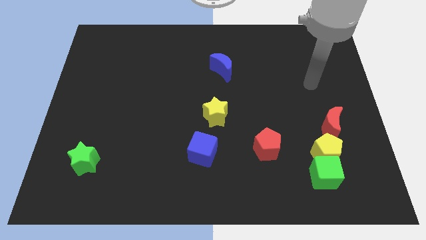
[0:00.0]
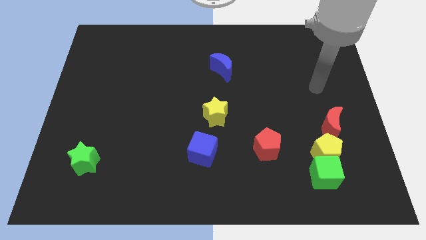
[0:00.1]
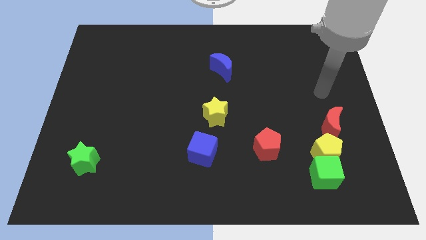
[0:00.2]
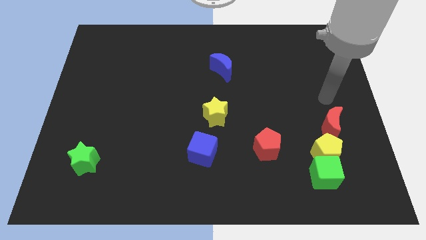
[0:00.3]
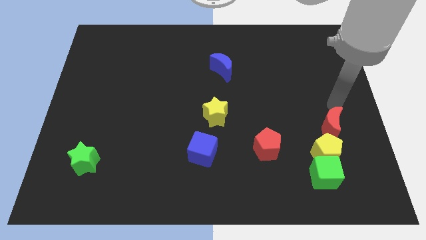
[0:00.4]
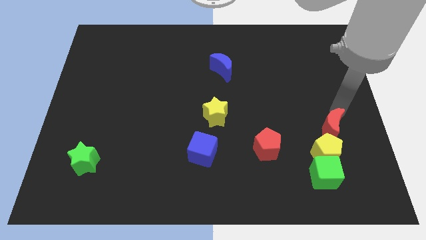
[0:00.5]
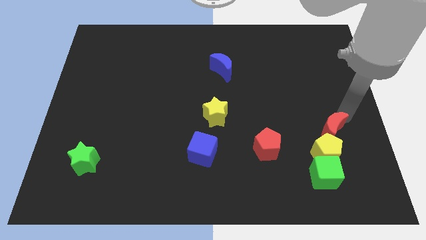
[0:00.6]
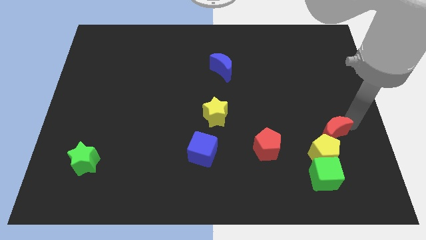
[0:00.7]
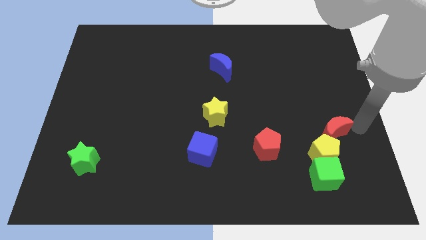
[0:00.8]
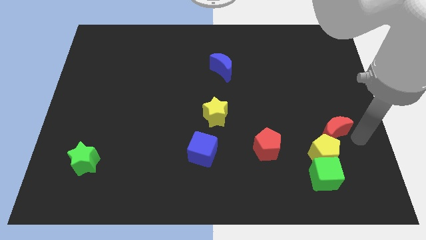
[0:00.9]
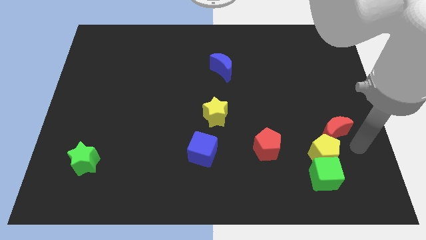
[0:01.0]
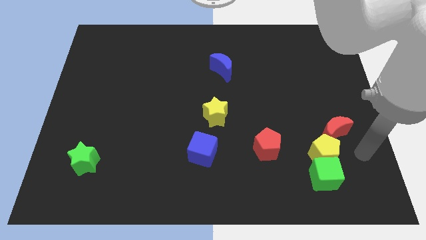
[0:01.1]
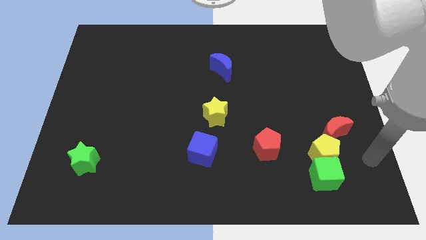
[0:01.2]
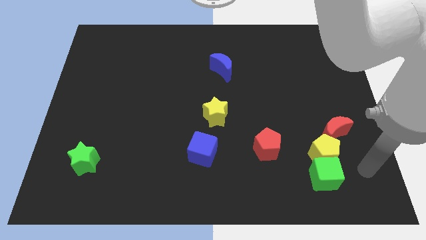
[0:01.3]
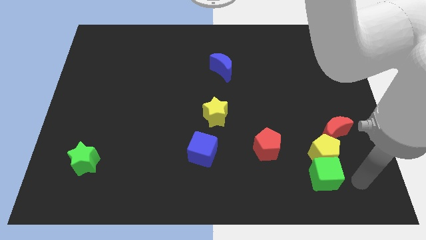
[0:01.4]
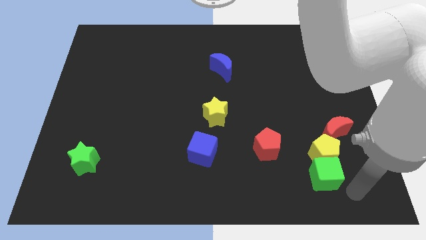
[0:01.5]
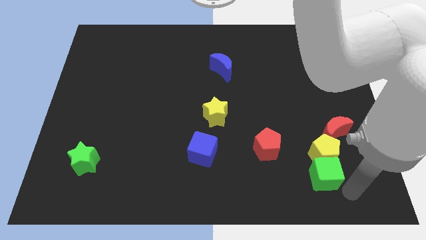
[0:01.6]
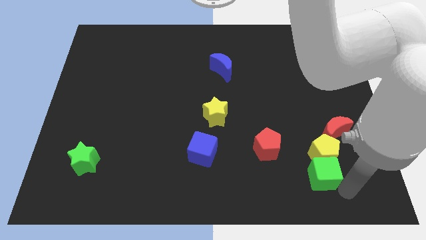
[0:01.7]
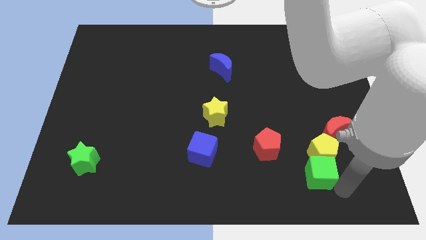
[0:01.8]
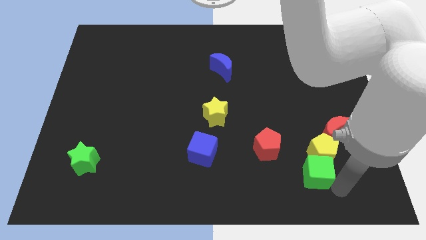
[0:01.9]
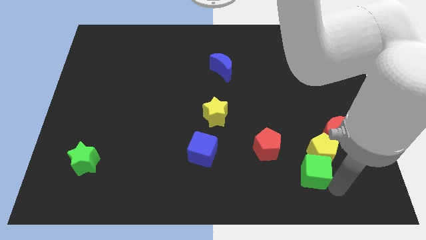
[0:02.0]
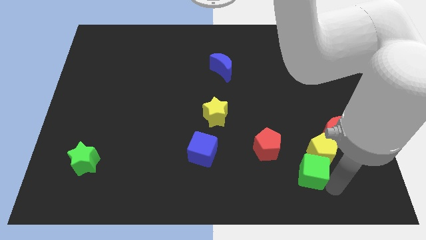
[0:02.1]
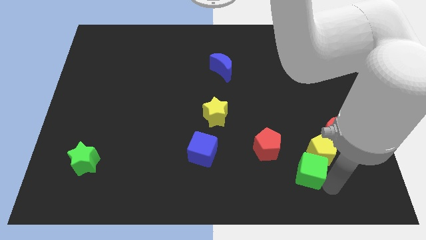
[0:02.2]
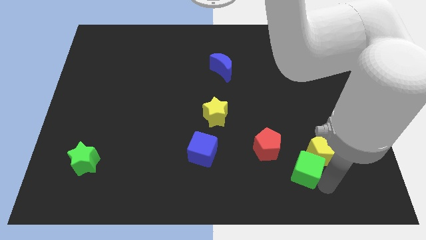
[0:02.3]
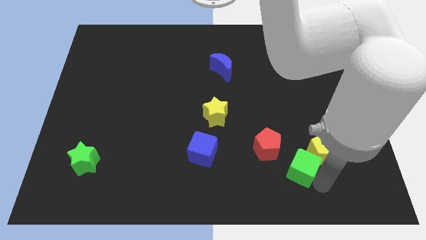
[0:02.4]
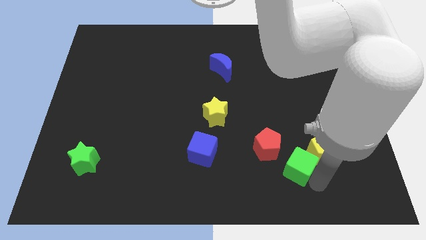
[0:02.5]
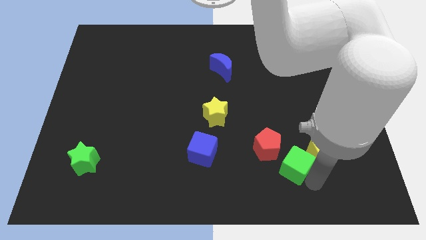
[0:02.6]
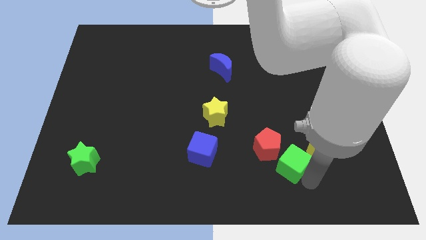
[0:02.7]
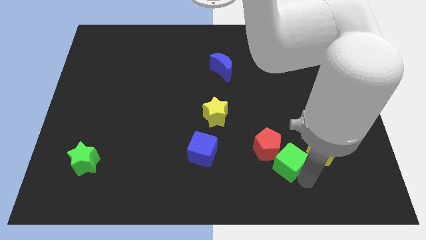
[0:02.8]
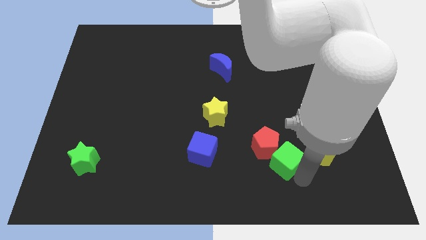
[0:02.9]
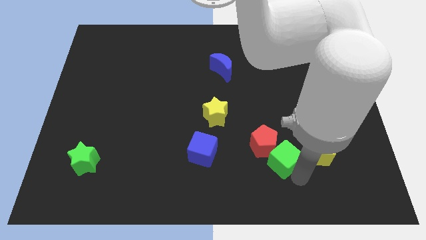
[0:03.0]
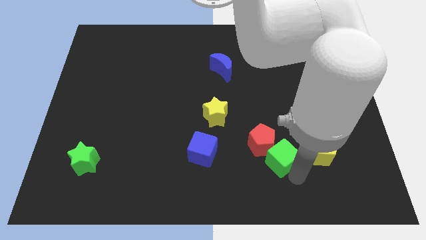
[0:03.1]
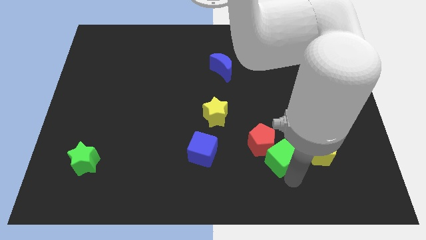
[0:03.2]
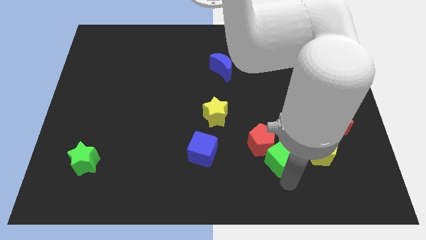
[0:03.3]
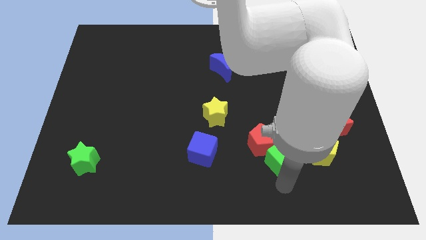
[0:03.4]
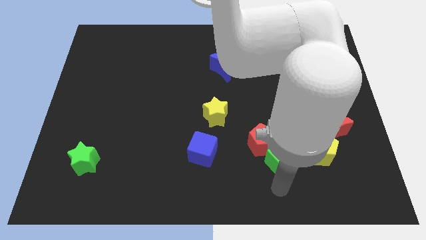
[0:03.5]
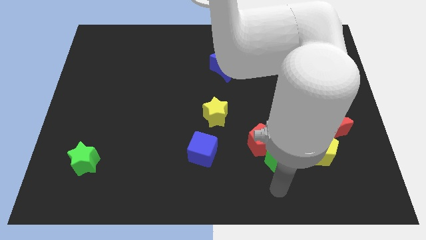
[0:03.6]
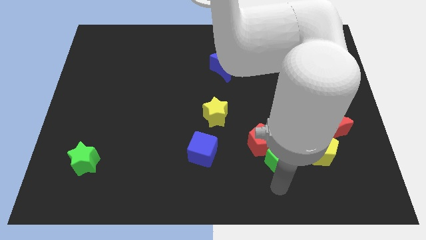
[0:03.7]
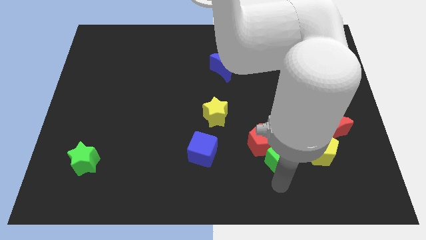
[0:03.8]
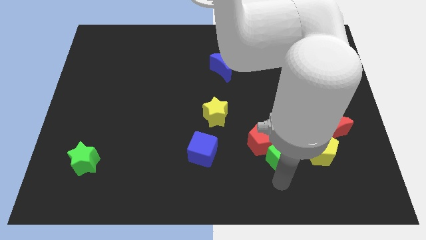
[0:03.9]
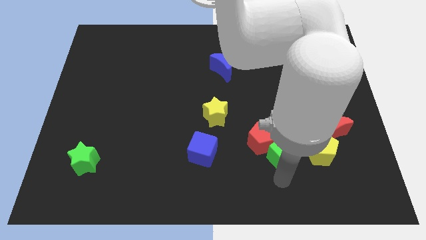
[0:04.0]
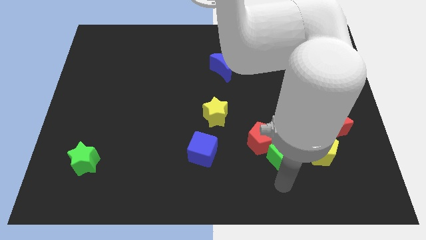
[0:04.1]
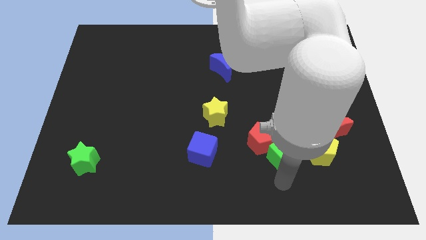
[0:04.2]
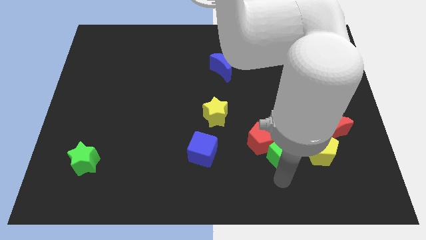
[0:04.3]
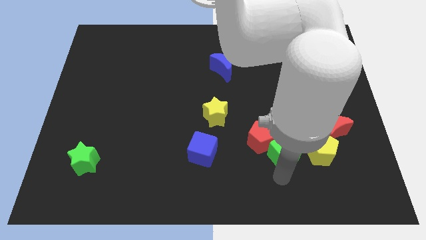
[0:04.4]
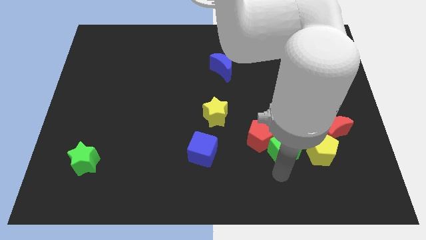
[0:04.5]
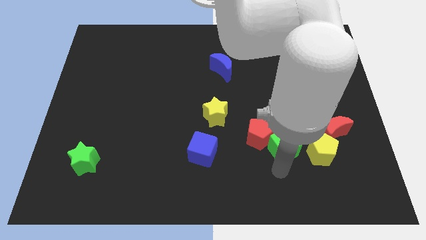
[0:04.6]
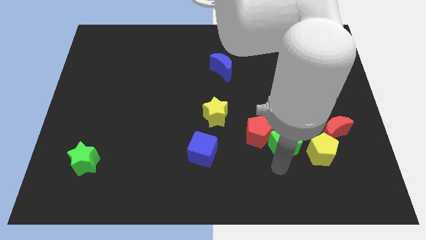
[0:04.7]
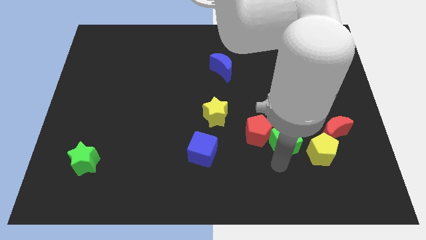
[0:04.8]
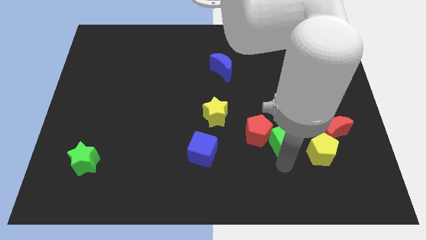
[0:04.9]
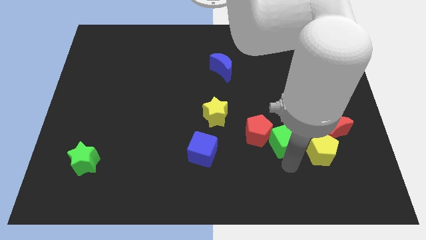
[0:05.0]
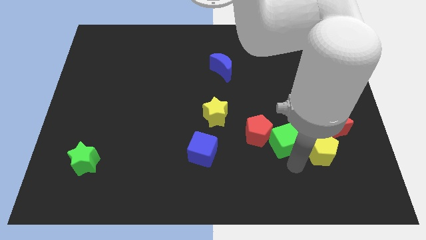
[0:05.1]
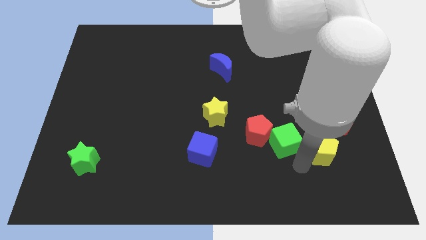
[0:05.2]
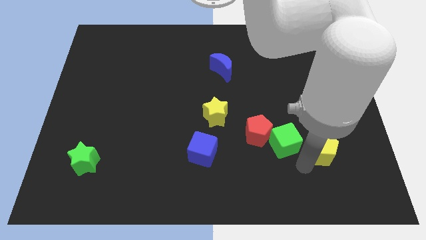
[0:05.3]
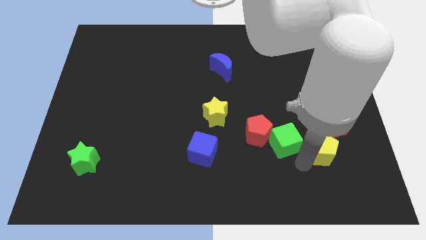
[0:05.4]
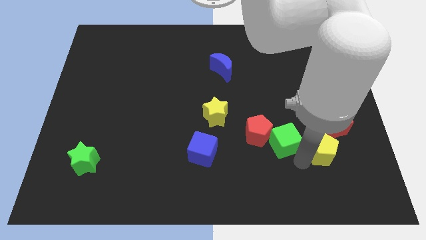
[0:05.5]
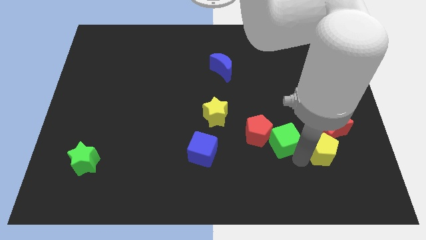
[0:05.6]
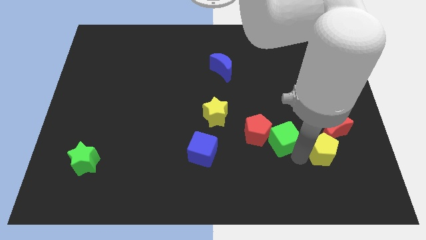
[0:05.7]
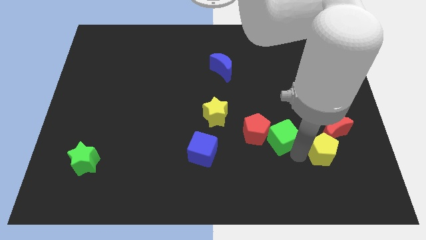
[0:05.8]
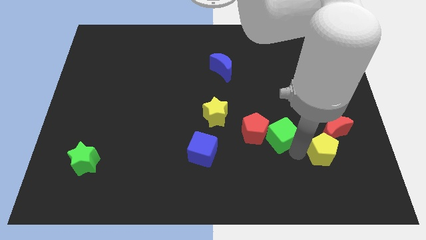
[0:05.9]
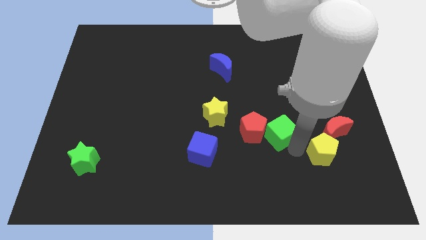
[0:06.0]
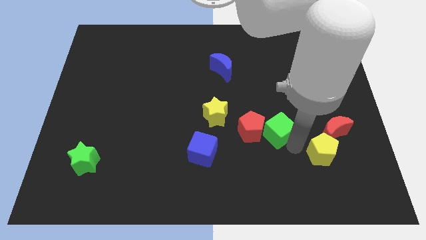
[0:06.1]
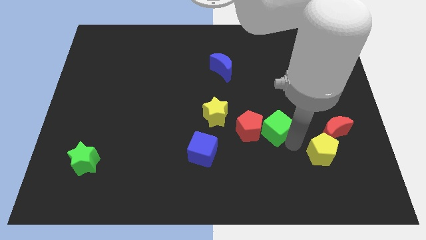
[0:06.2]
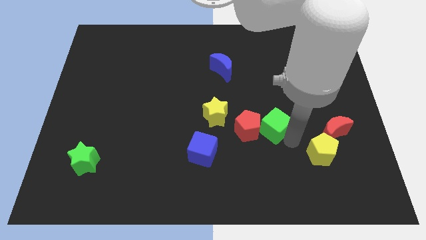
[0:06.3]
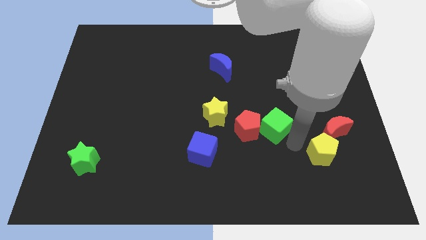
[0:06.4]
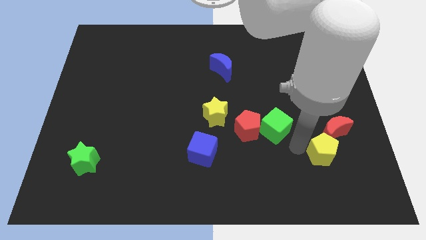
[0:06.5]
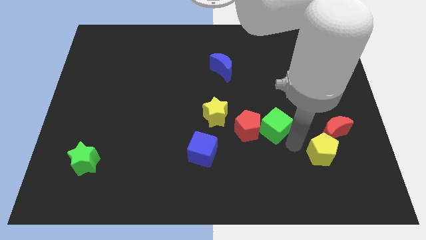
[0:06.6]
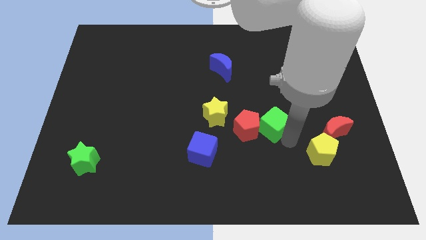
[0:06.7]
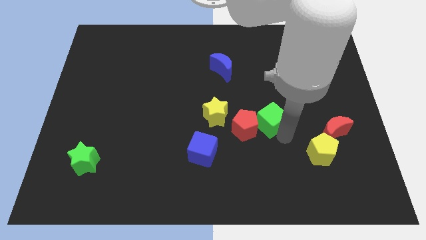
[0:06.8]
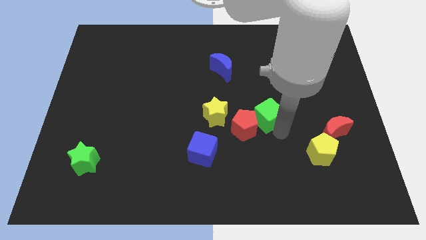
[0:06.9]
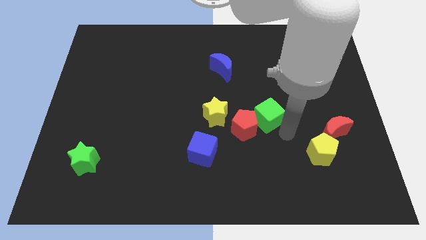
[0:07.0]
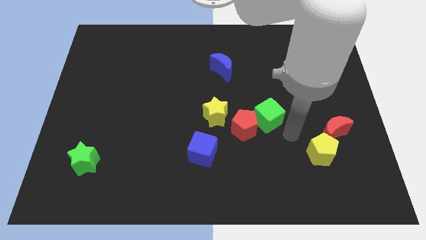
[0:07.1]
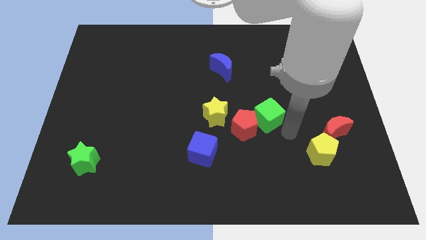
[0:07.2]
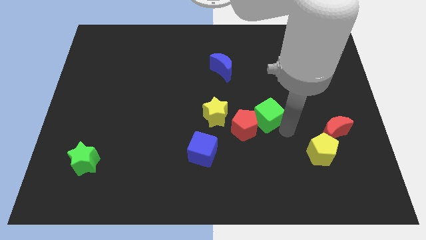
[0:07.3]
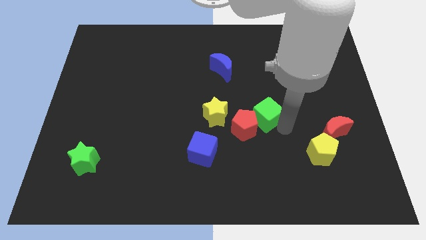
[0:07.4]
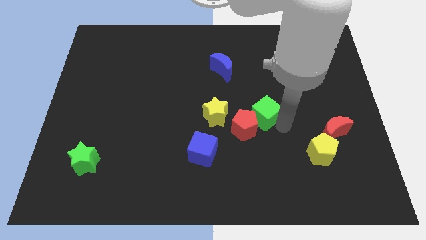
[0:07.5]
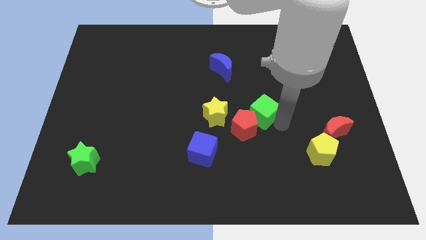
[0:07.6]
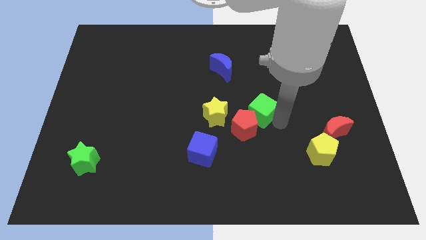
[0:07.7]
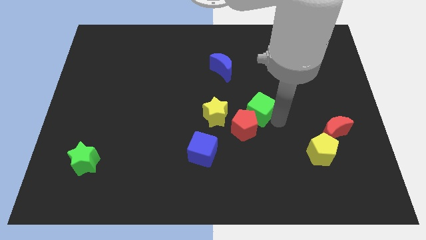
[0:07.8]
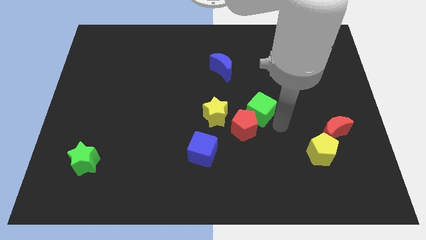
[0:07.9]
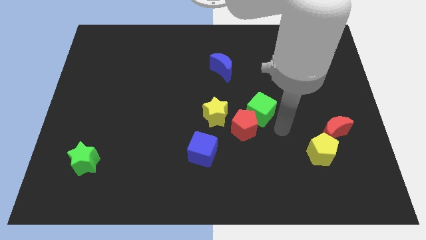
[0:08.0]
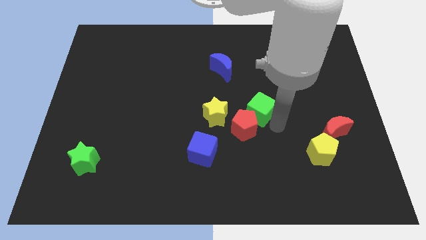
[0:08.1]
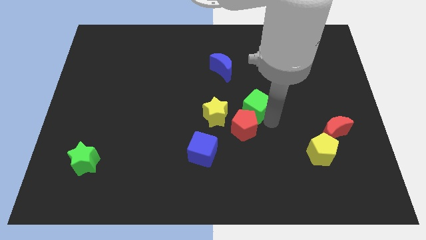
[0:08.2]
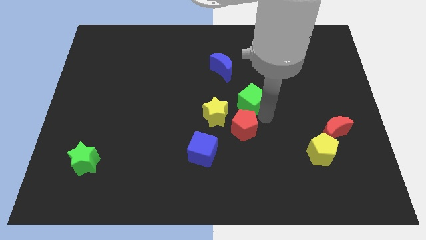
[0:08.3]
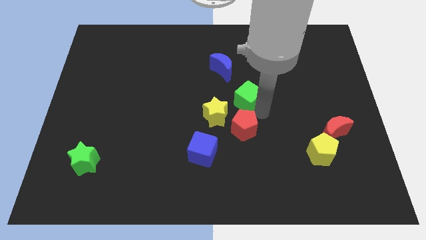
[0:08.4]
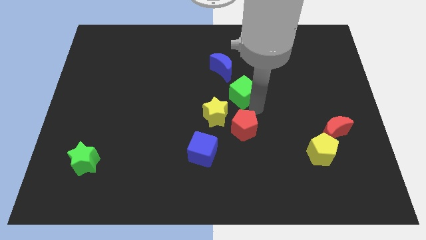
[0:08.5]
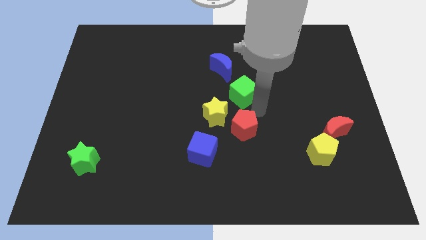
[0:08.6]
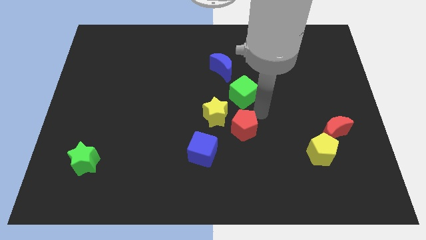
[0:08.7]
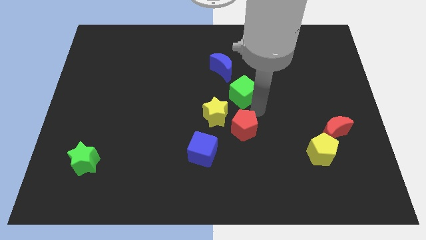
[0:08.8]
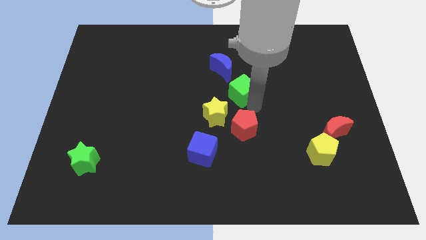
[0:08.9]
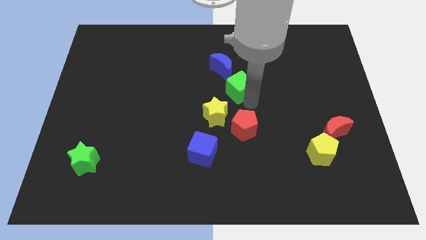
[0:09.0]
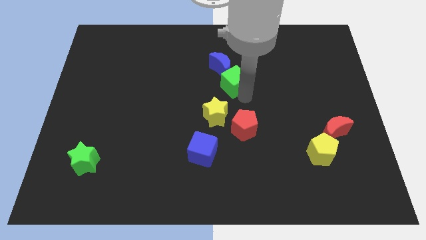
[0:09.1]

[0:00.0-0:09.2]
push the green cube towards the blue moon
